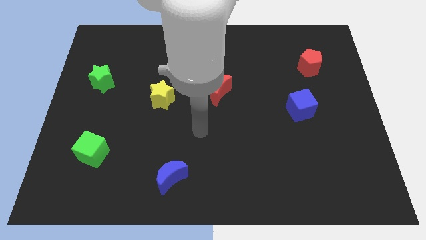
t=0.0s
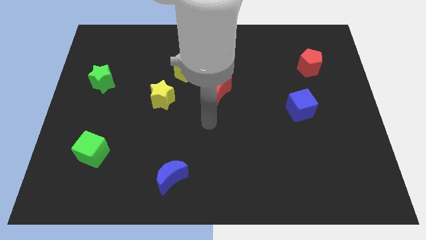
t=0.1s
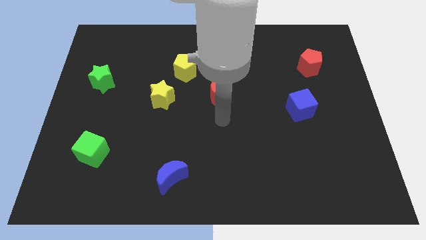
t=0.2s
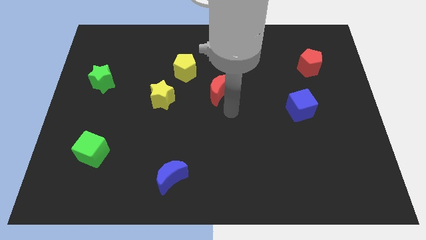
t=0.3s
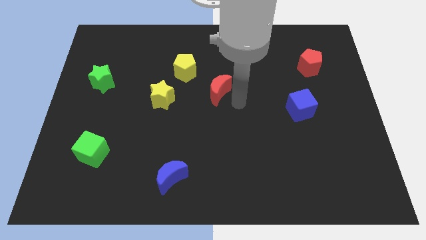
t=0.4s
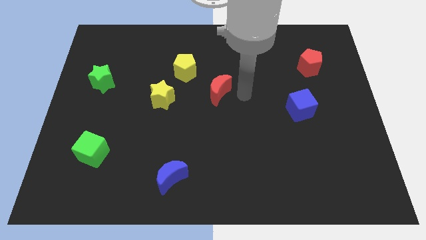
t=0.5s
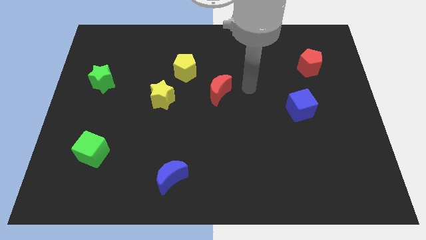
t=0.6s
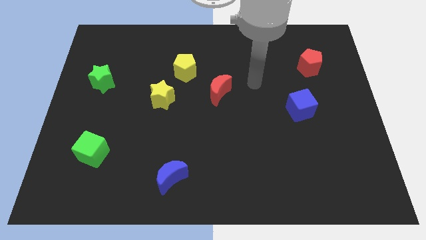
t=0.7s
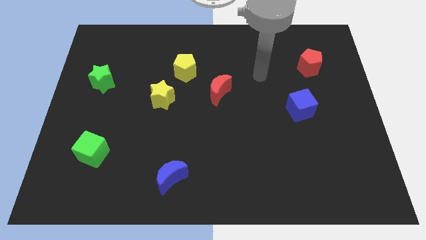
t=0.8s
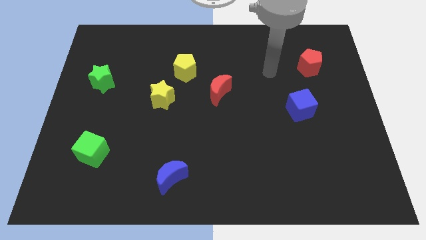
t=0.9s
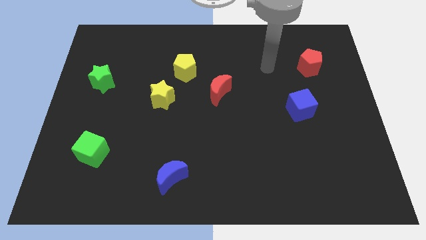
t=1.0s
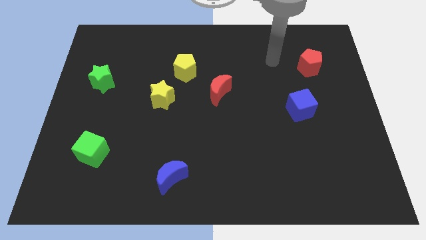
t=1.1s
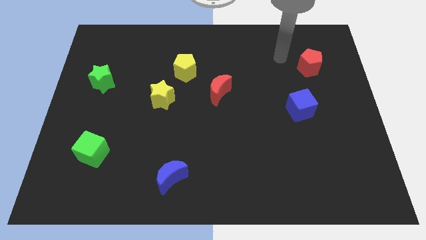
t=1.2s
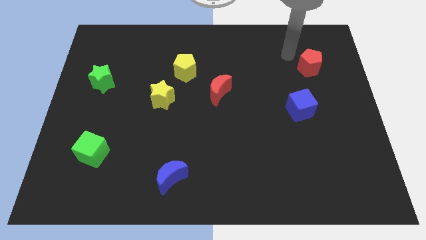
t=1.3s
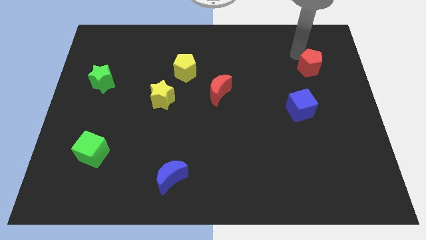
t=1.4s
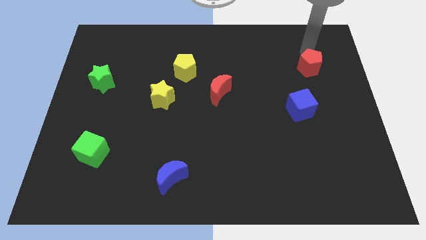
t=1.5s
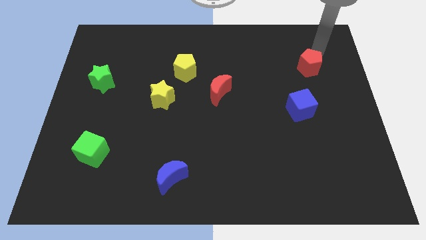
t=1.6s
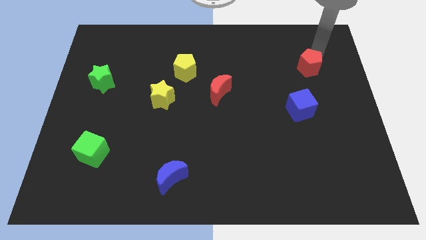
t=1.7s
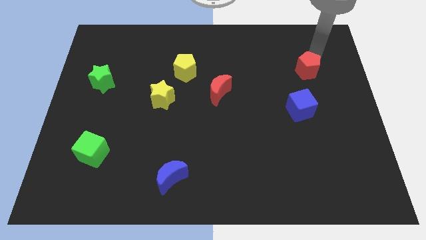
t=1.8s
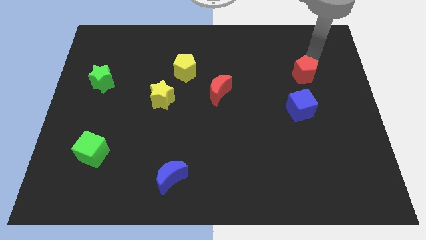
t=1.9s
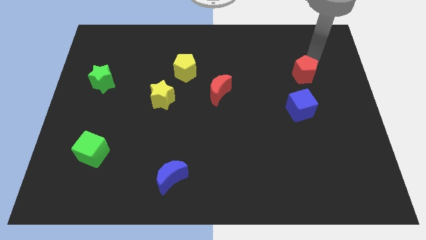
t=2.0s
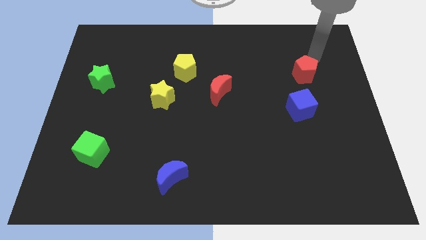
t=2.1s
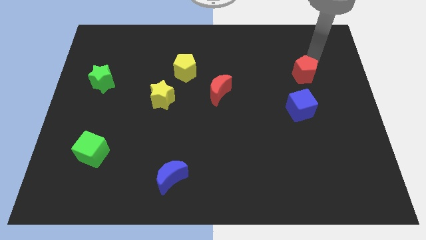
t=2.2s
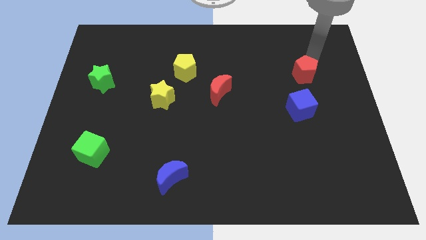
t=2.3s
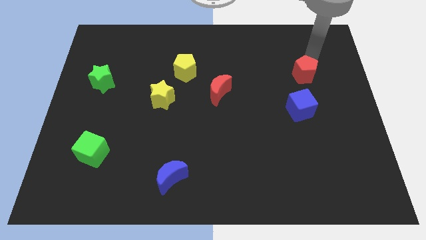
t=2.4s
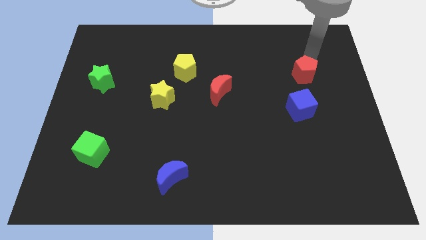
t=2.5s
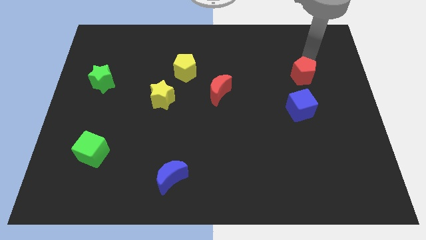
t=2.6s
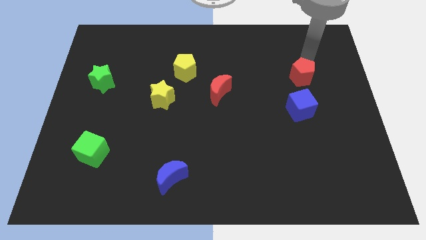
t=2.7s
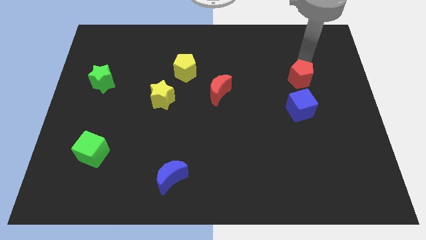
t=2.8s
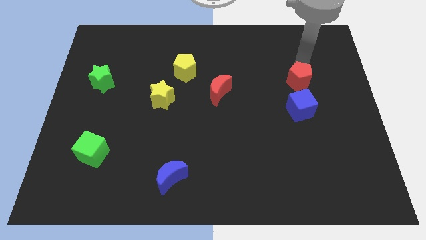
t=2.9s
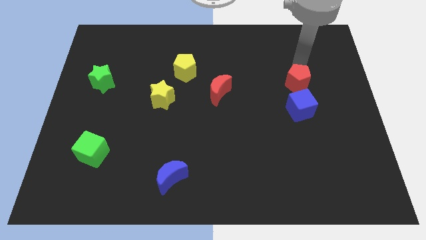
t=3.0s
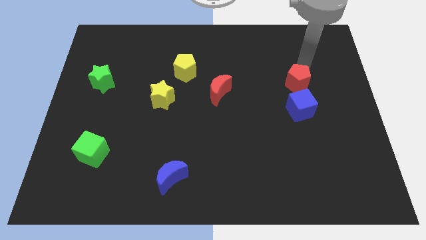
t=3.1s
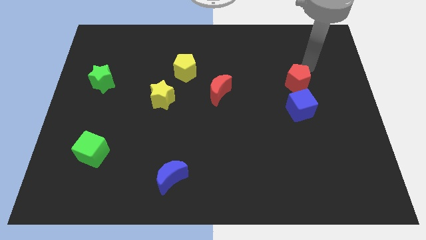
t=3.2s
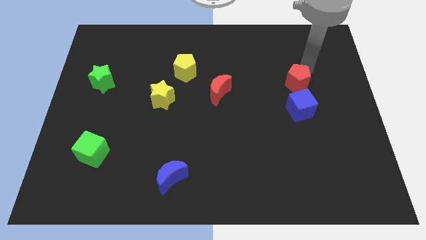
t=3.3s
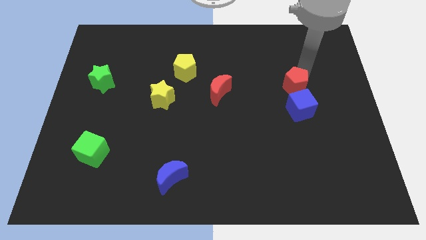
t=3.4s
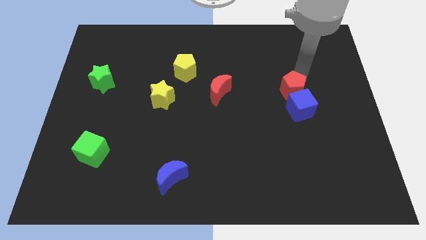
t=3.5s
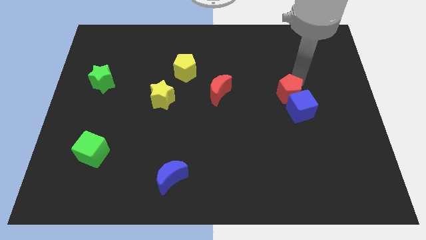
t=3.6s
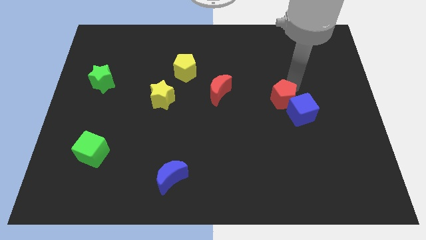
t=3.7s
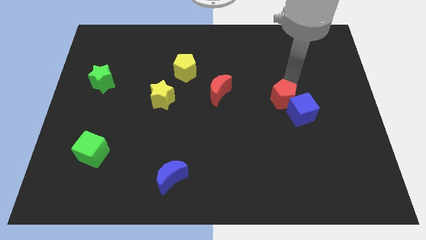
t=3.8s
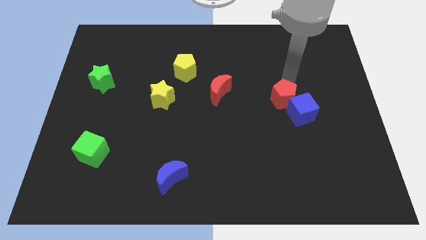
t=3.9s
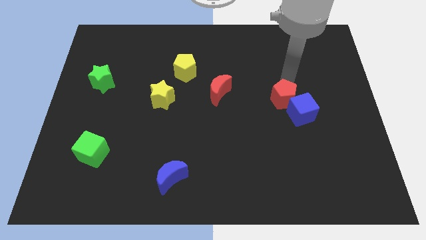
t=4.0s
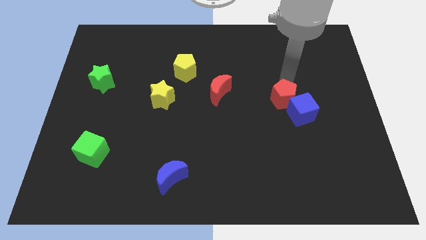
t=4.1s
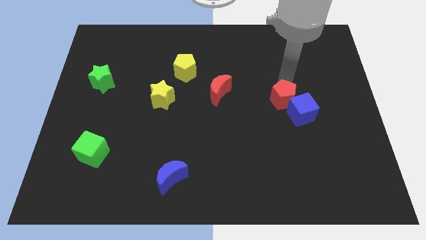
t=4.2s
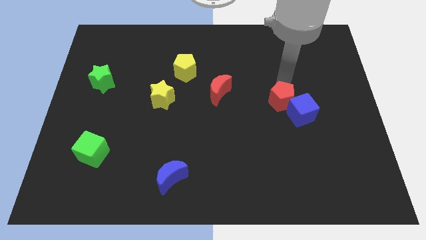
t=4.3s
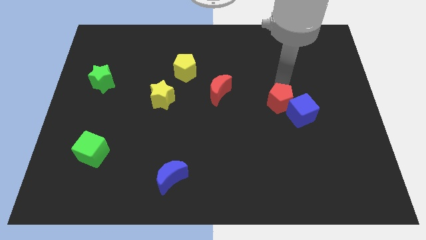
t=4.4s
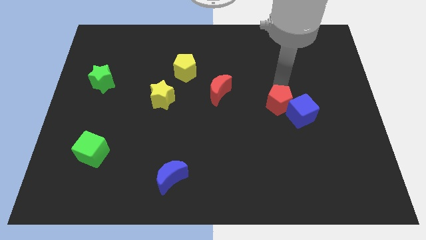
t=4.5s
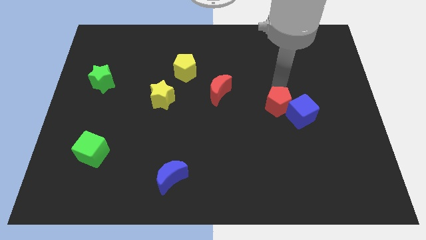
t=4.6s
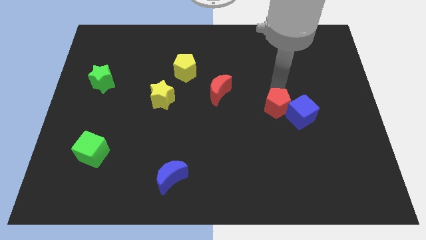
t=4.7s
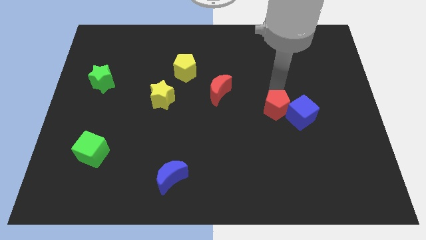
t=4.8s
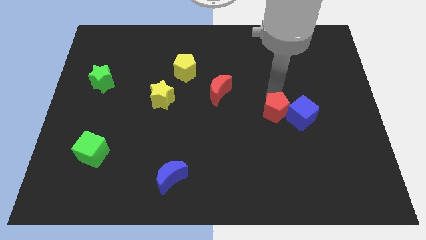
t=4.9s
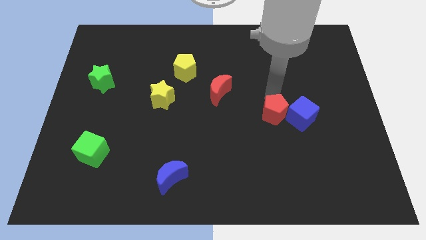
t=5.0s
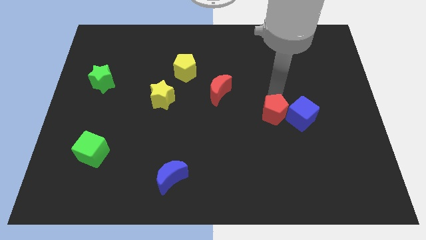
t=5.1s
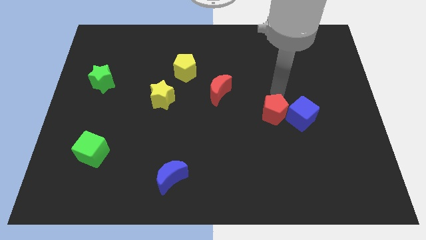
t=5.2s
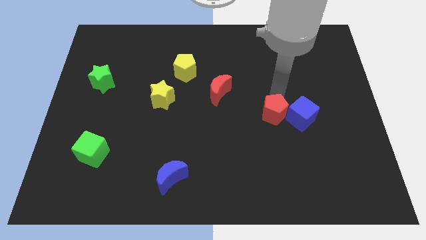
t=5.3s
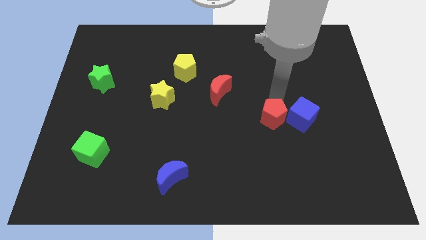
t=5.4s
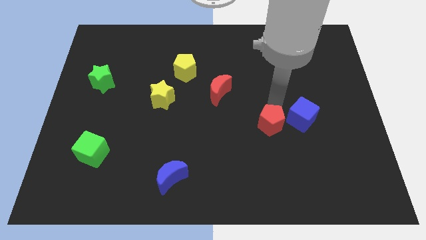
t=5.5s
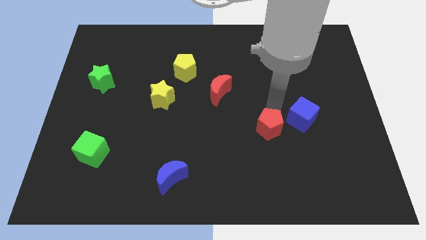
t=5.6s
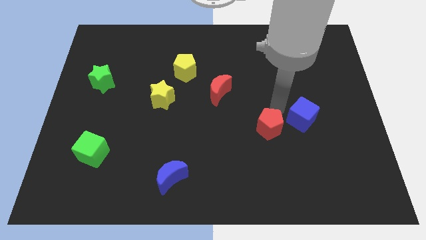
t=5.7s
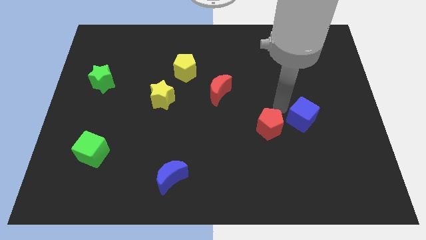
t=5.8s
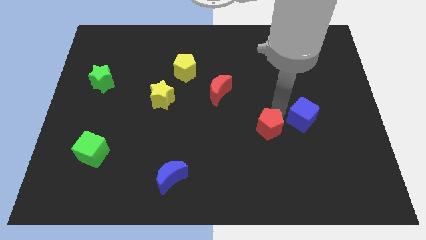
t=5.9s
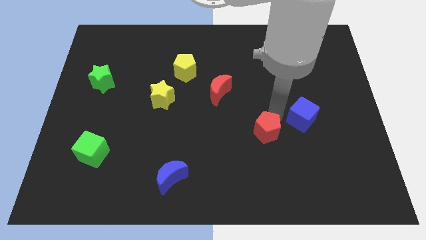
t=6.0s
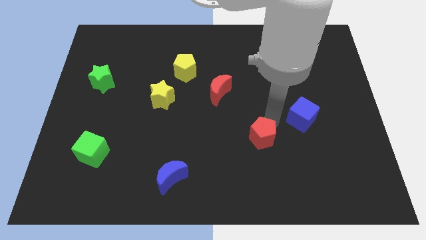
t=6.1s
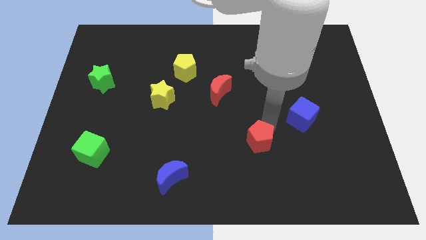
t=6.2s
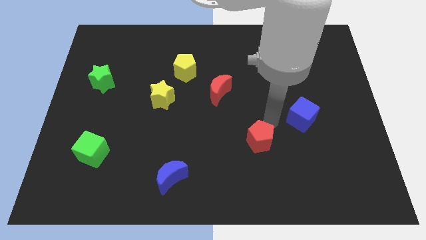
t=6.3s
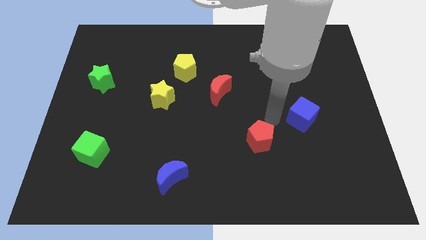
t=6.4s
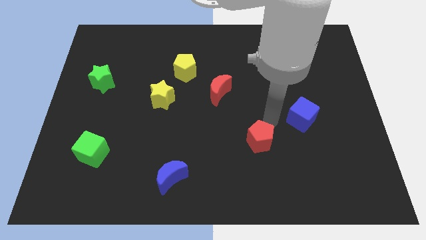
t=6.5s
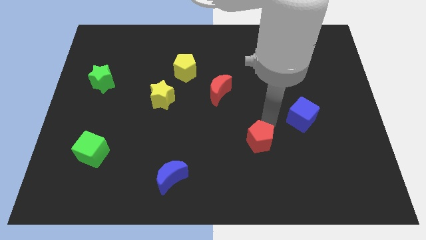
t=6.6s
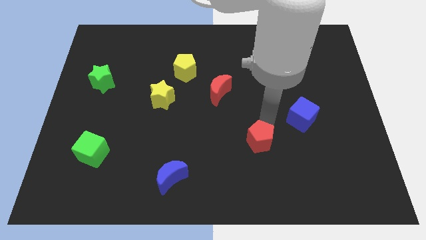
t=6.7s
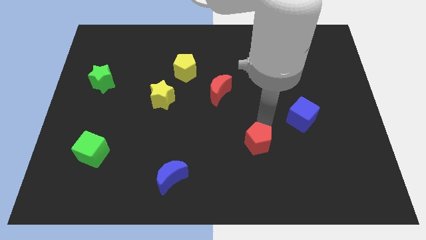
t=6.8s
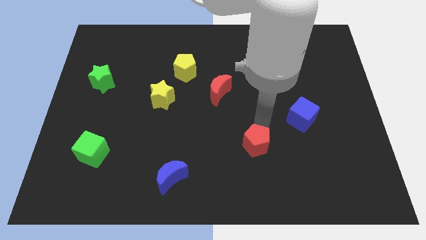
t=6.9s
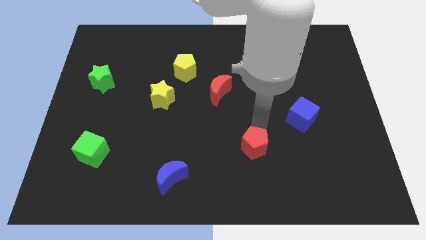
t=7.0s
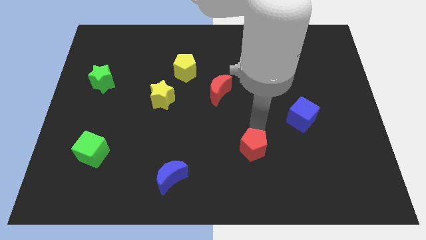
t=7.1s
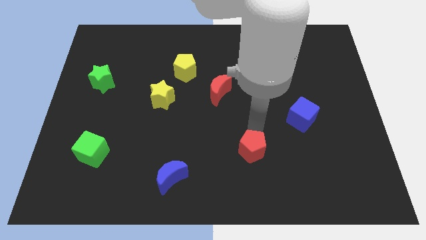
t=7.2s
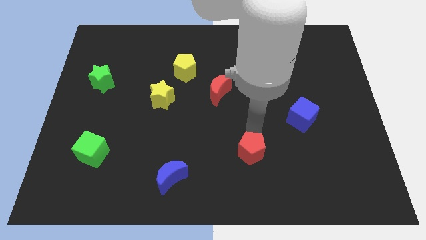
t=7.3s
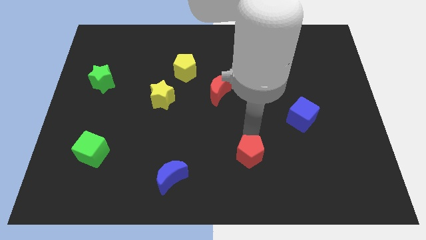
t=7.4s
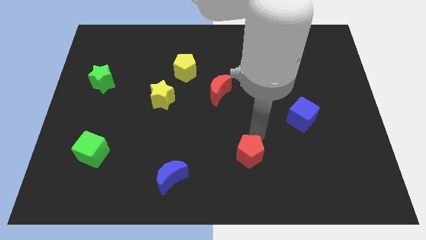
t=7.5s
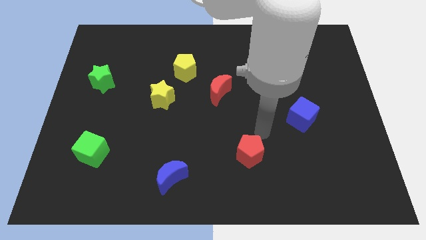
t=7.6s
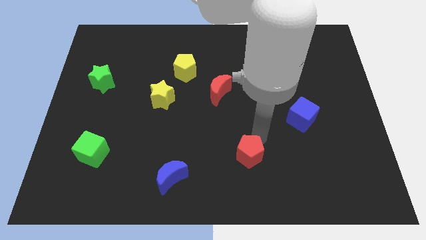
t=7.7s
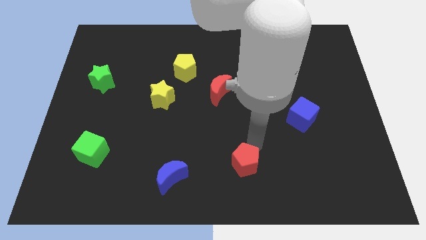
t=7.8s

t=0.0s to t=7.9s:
move the red pentagon to the bottom
